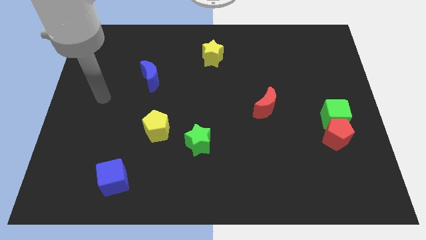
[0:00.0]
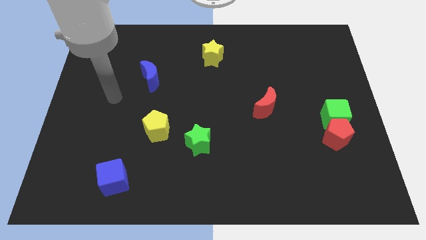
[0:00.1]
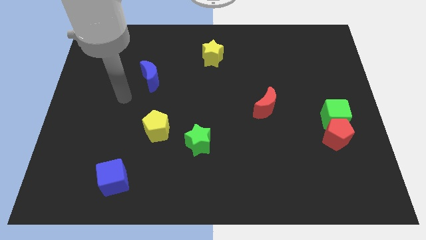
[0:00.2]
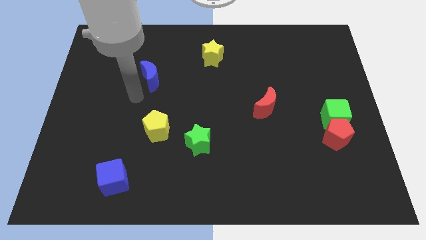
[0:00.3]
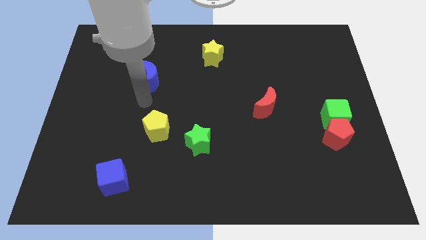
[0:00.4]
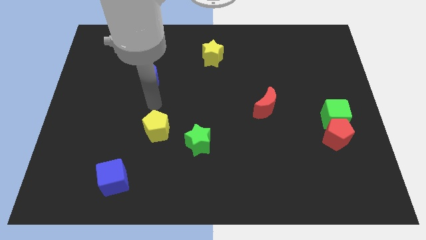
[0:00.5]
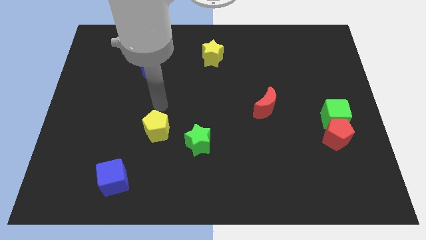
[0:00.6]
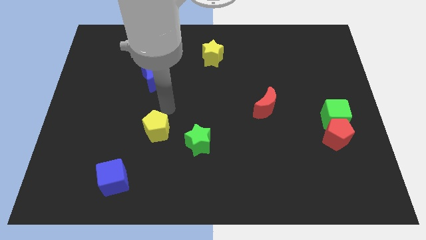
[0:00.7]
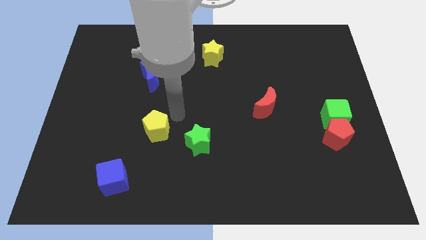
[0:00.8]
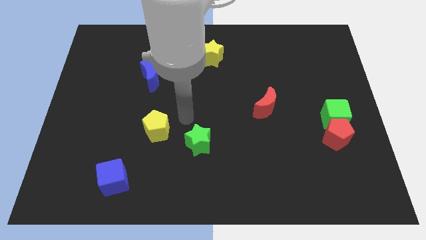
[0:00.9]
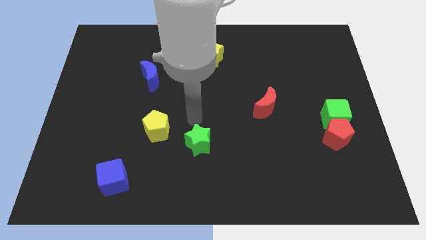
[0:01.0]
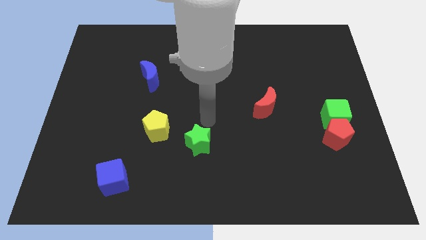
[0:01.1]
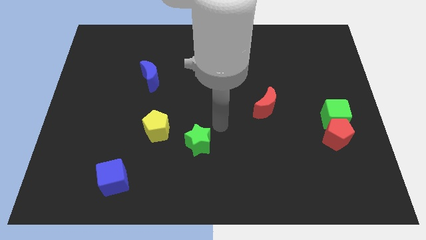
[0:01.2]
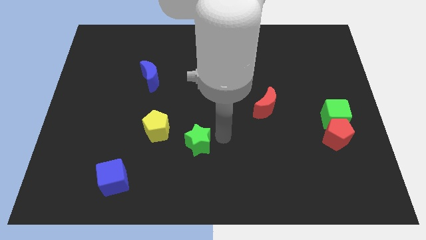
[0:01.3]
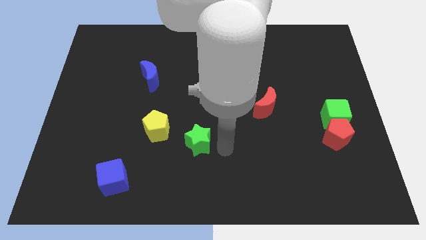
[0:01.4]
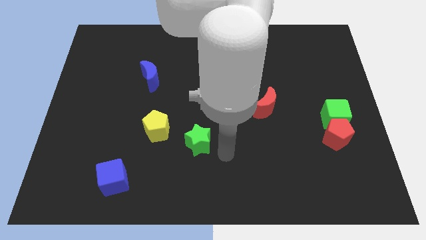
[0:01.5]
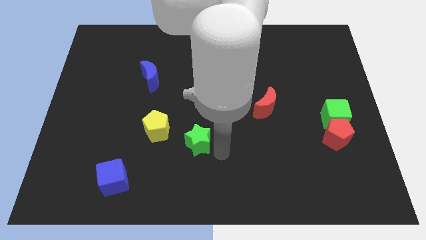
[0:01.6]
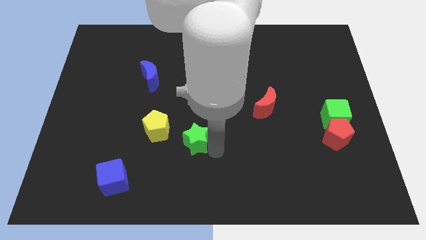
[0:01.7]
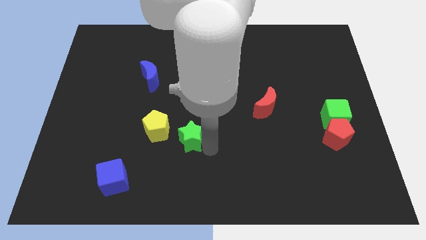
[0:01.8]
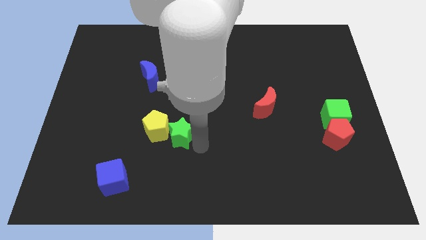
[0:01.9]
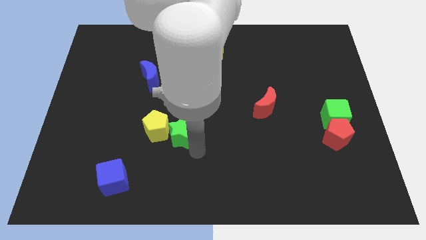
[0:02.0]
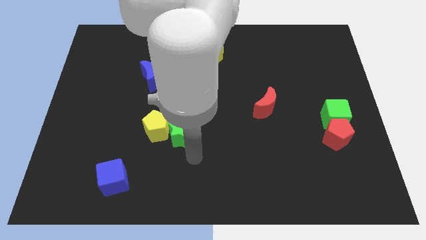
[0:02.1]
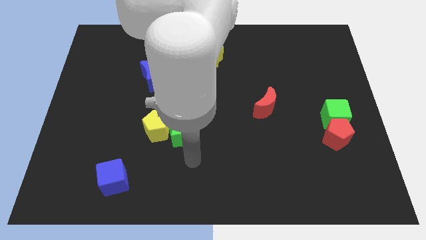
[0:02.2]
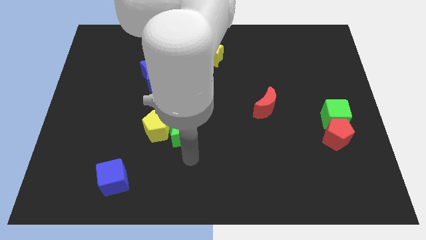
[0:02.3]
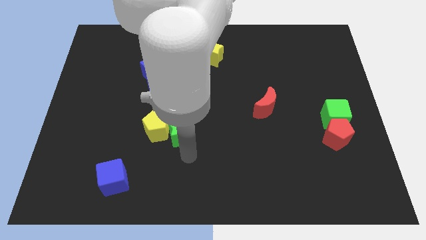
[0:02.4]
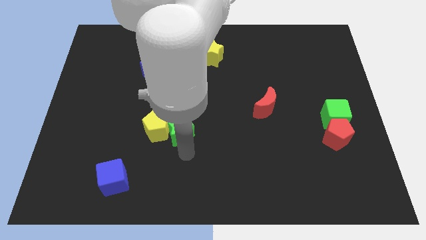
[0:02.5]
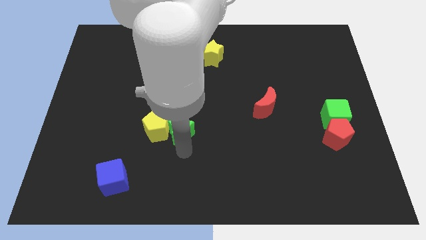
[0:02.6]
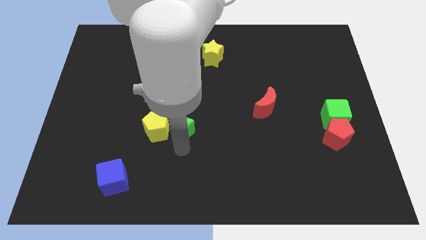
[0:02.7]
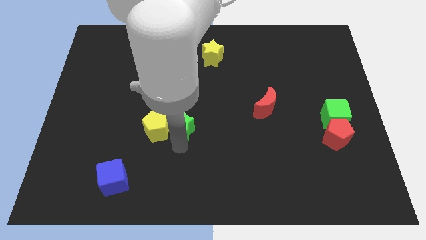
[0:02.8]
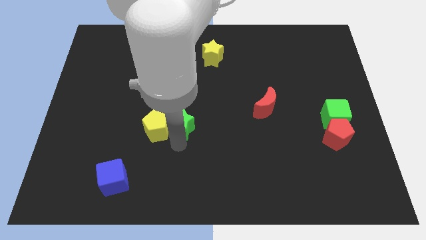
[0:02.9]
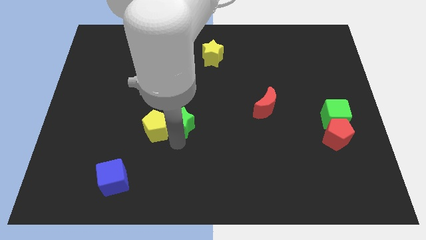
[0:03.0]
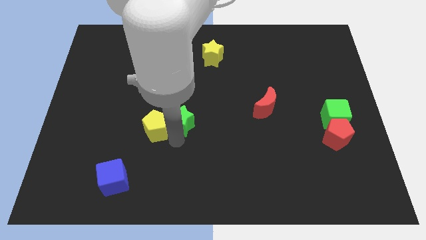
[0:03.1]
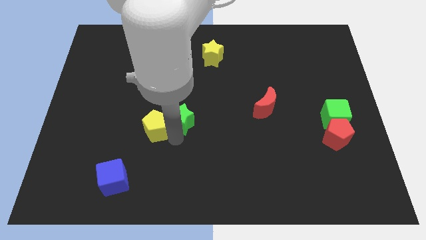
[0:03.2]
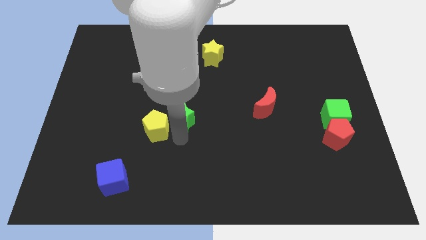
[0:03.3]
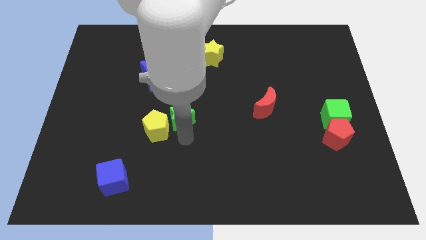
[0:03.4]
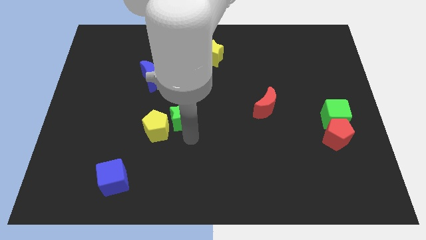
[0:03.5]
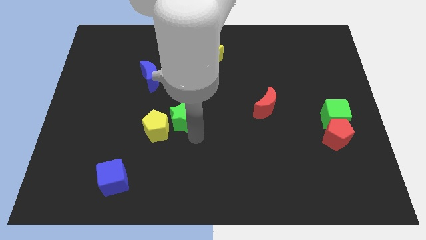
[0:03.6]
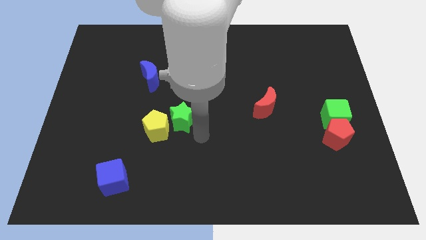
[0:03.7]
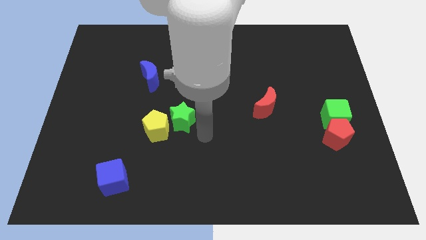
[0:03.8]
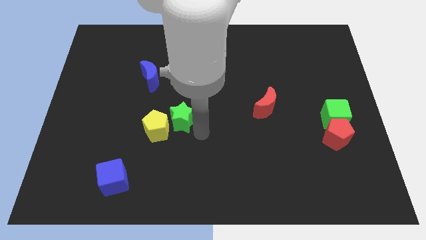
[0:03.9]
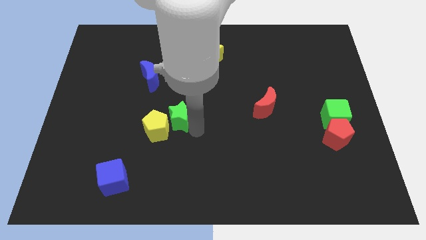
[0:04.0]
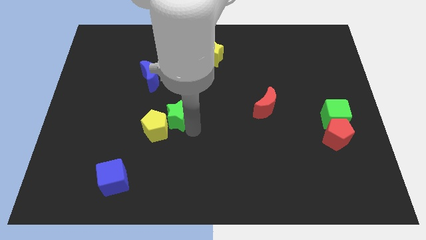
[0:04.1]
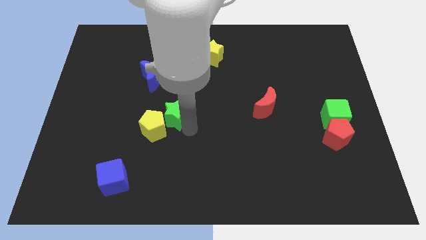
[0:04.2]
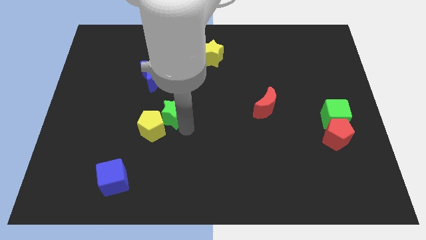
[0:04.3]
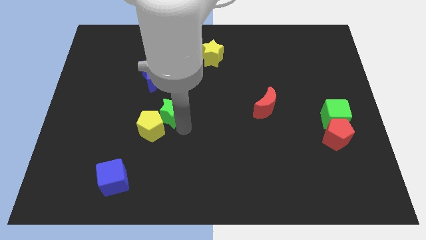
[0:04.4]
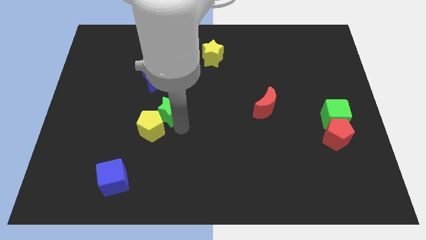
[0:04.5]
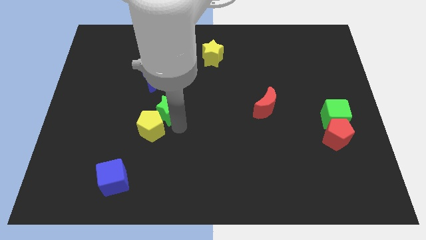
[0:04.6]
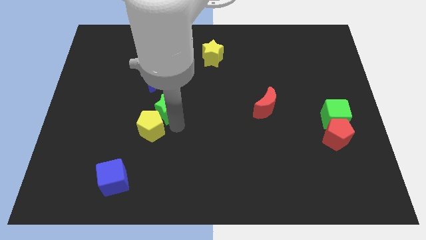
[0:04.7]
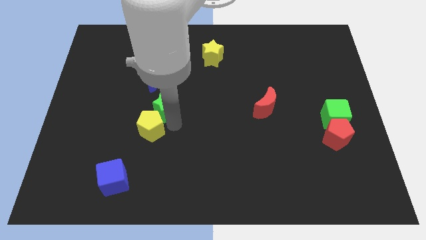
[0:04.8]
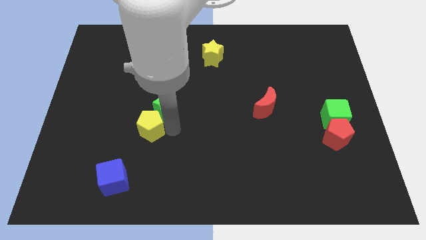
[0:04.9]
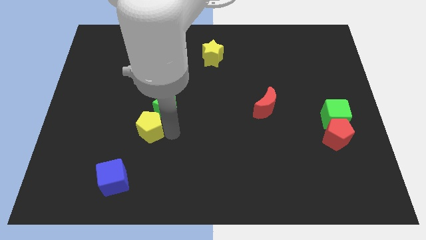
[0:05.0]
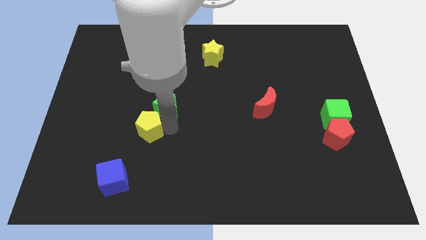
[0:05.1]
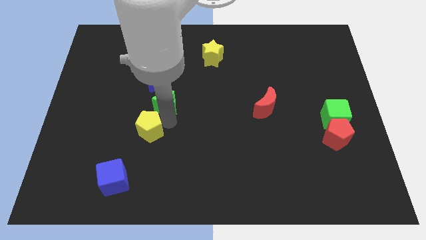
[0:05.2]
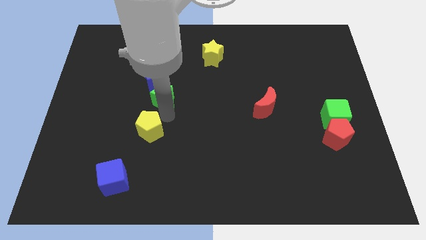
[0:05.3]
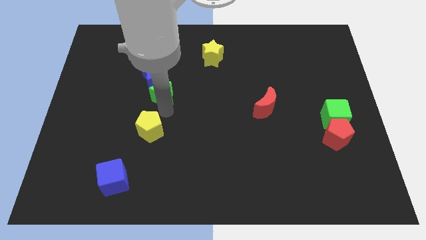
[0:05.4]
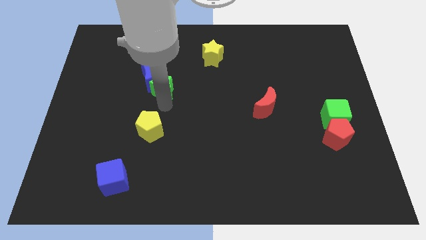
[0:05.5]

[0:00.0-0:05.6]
move the green star to the blue moon

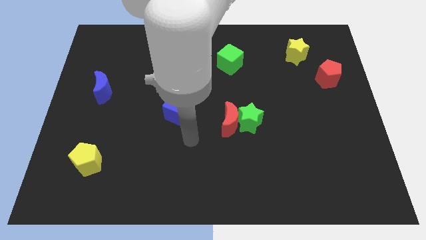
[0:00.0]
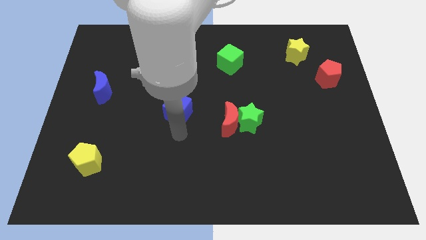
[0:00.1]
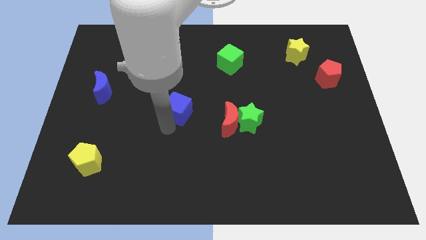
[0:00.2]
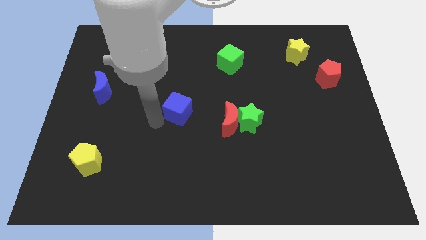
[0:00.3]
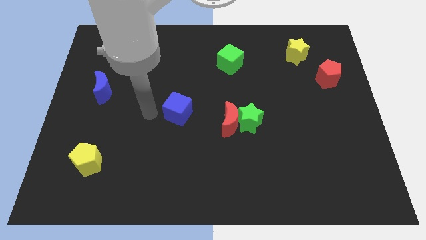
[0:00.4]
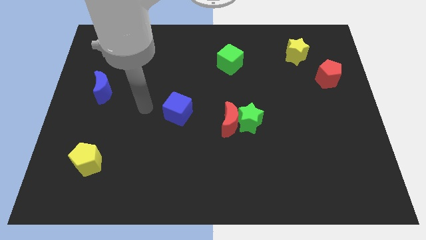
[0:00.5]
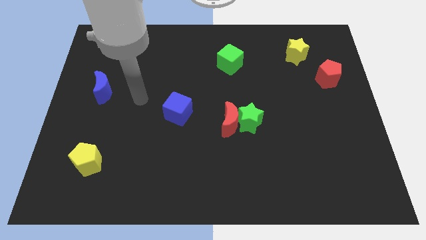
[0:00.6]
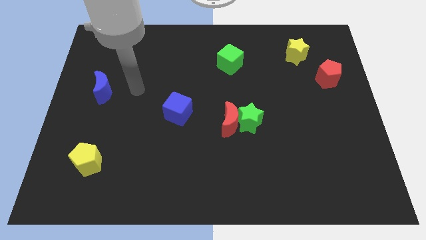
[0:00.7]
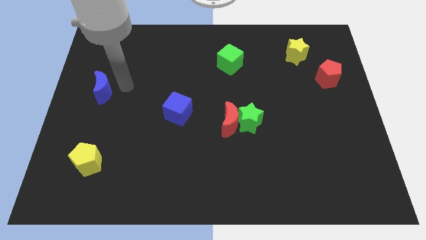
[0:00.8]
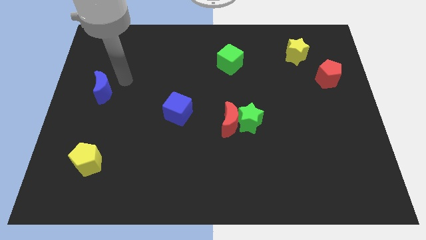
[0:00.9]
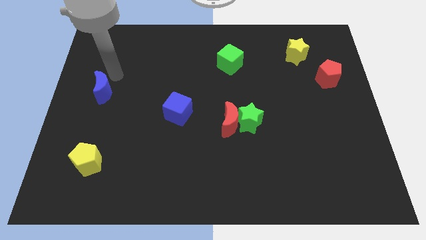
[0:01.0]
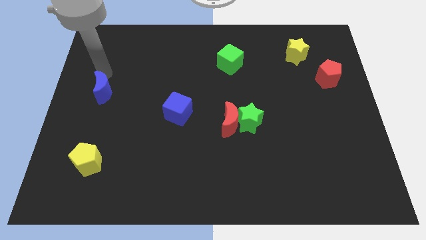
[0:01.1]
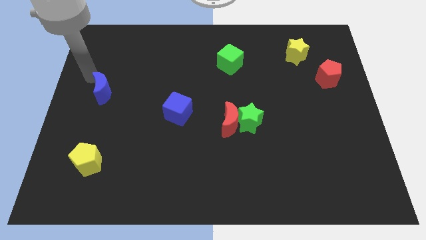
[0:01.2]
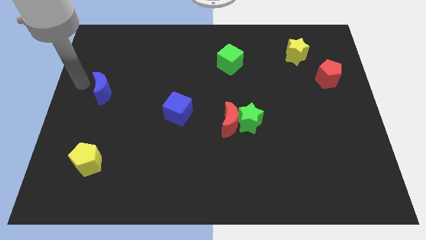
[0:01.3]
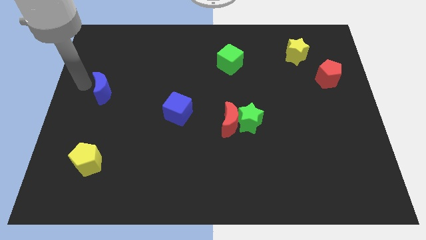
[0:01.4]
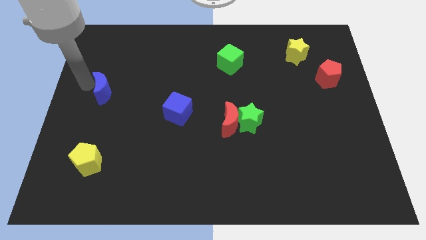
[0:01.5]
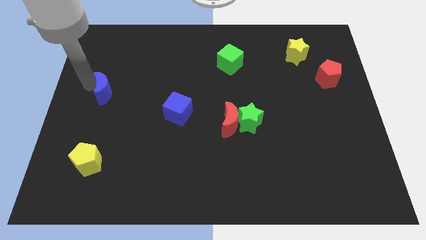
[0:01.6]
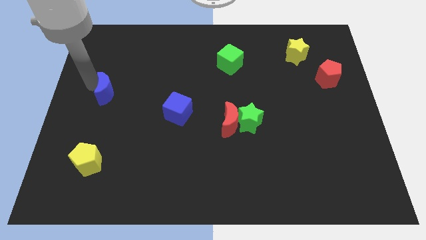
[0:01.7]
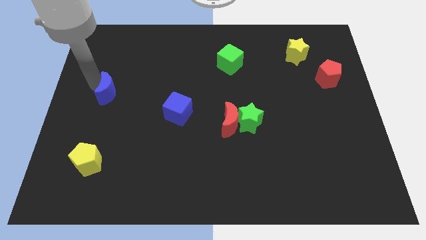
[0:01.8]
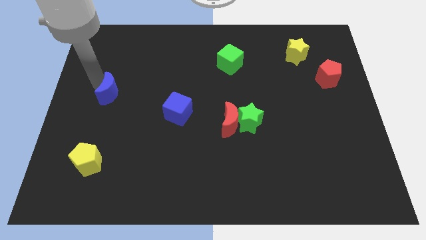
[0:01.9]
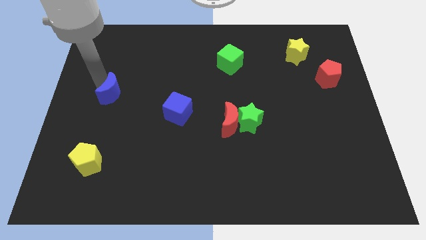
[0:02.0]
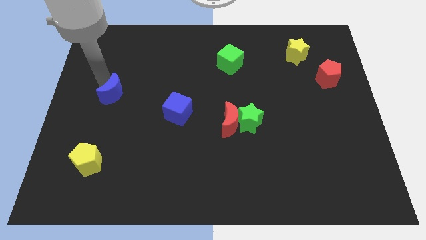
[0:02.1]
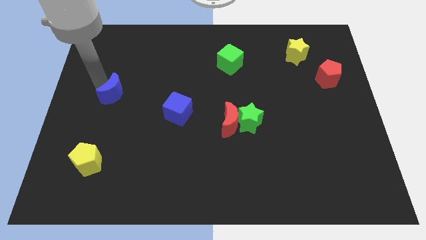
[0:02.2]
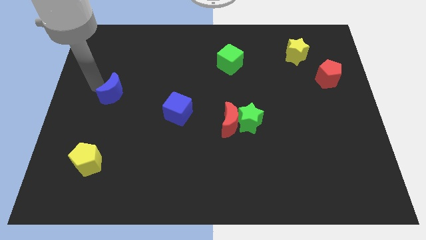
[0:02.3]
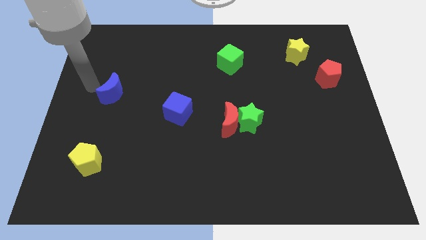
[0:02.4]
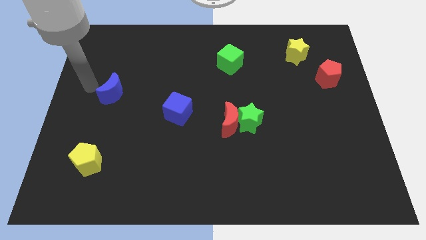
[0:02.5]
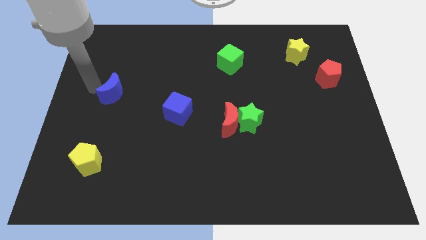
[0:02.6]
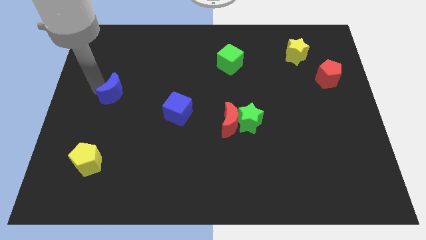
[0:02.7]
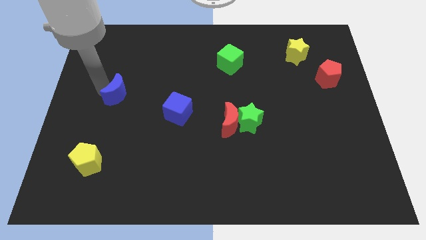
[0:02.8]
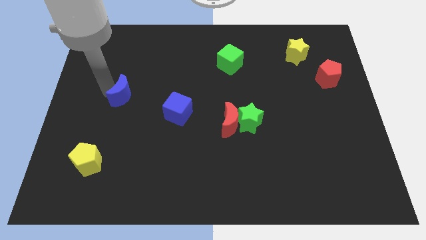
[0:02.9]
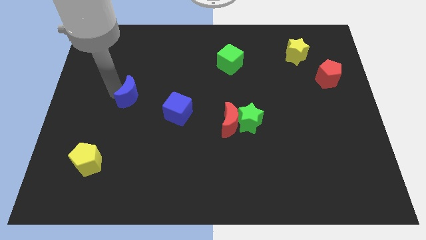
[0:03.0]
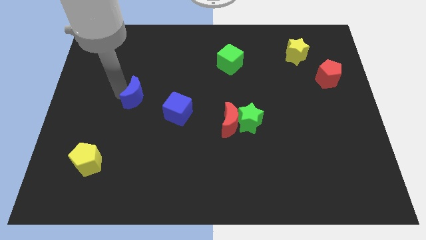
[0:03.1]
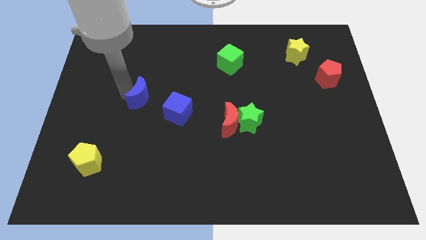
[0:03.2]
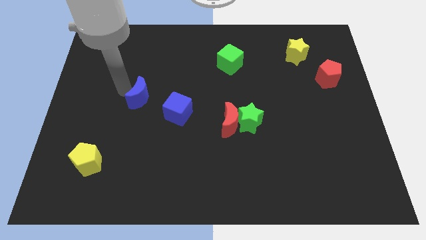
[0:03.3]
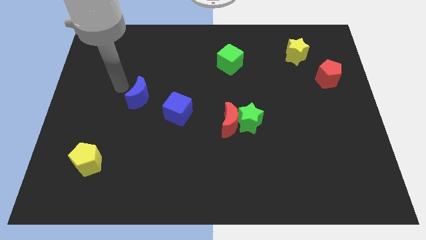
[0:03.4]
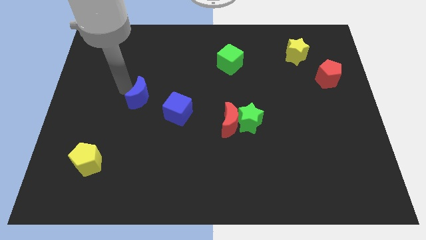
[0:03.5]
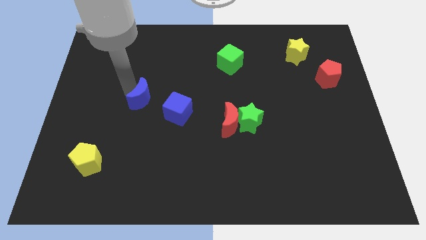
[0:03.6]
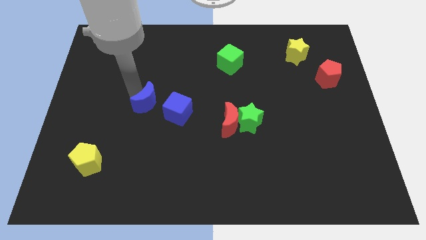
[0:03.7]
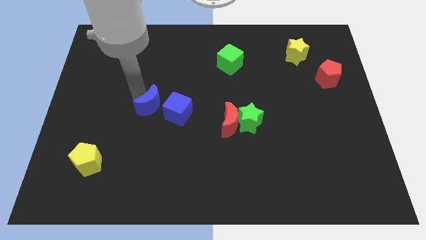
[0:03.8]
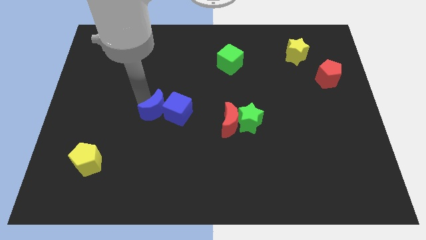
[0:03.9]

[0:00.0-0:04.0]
slide the blue moon next to the blue cube
